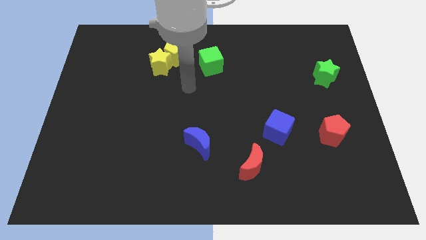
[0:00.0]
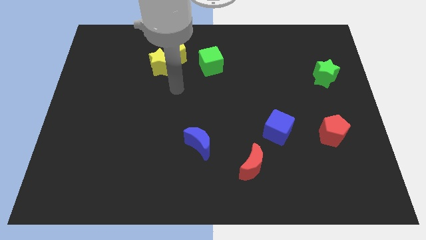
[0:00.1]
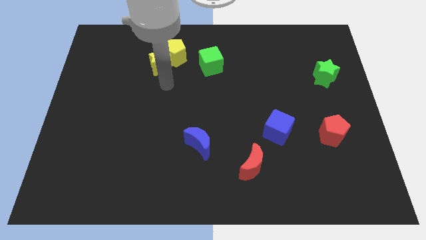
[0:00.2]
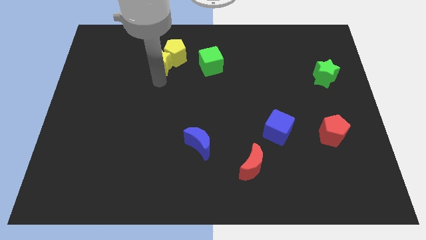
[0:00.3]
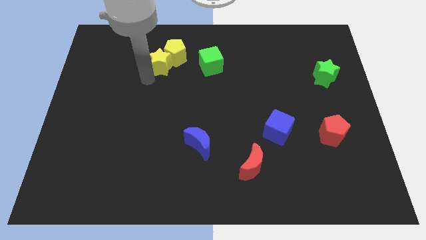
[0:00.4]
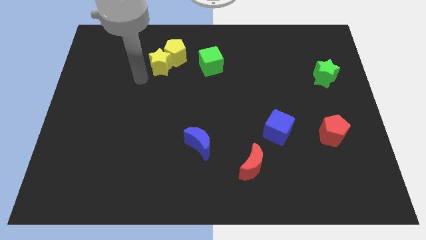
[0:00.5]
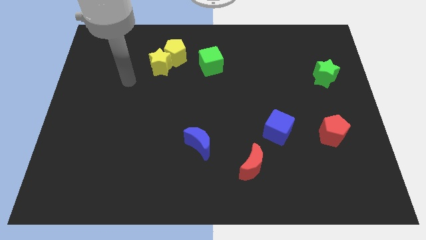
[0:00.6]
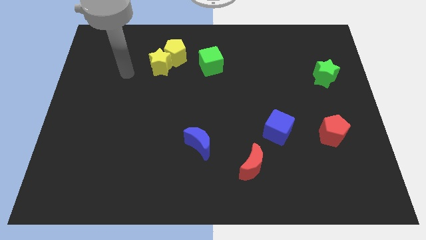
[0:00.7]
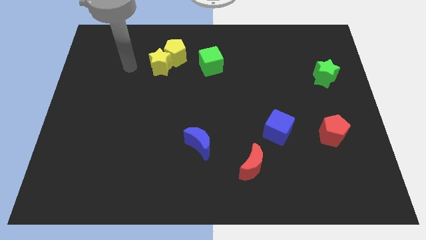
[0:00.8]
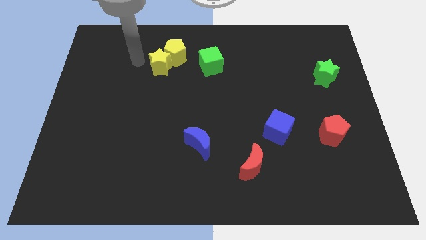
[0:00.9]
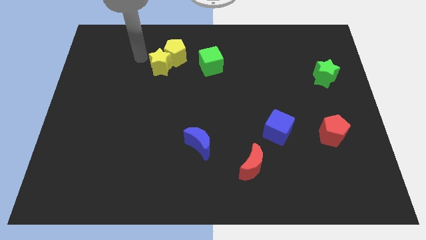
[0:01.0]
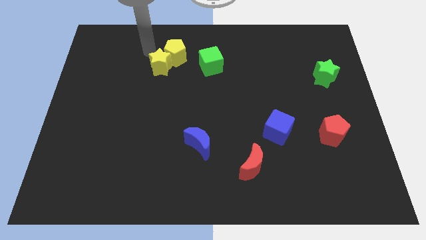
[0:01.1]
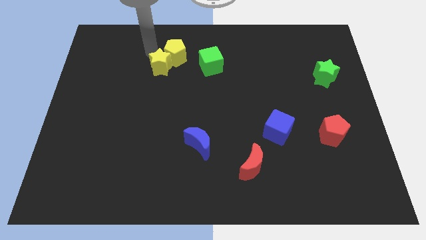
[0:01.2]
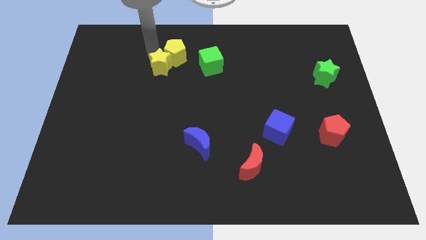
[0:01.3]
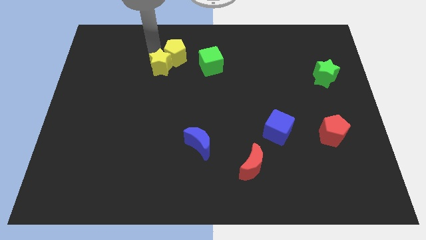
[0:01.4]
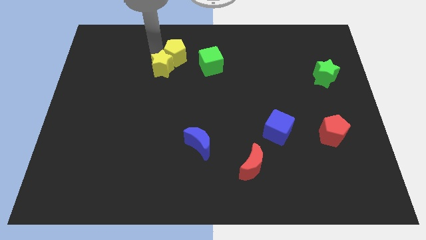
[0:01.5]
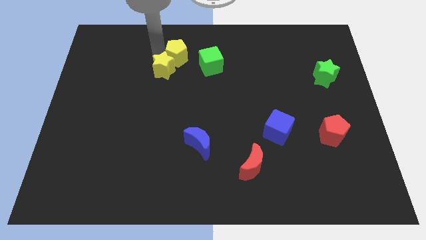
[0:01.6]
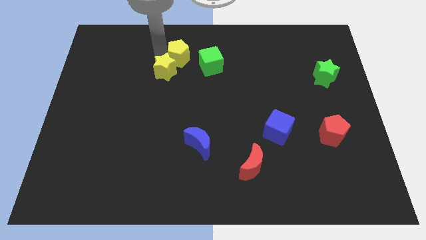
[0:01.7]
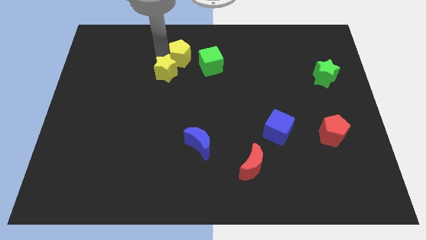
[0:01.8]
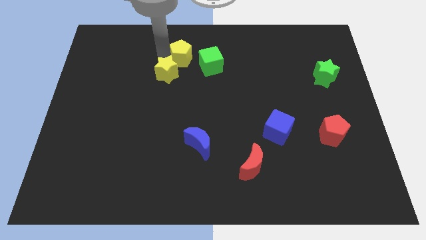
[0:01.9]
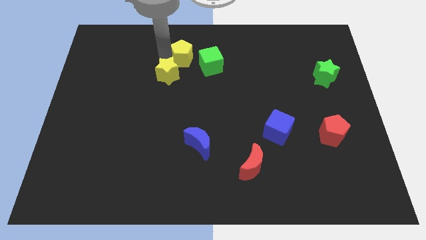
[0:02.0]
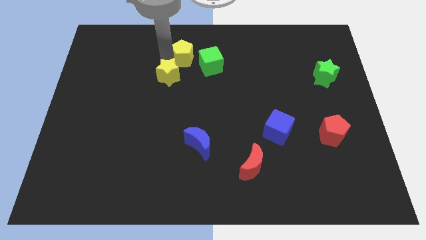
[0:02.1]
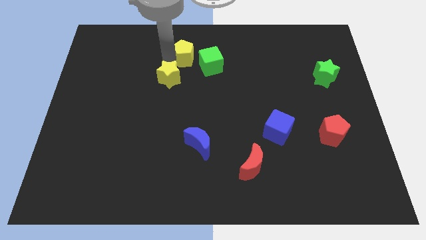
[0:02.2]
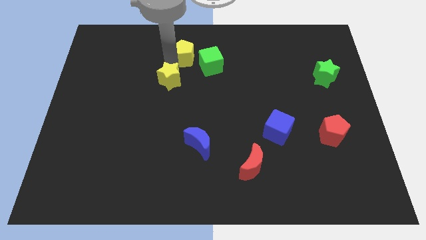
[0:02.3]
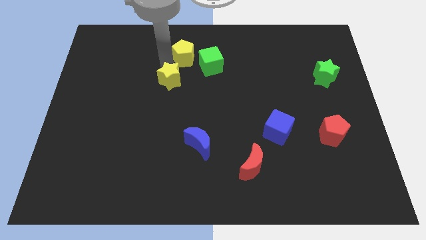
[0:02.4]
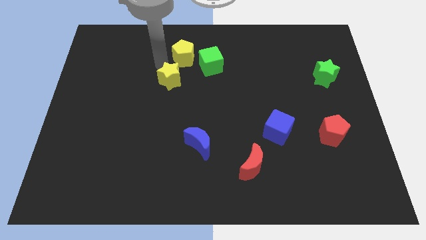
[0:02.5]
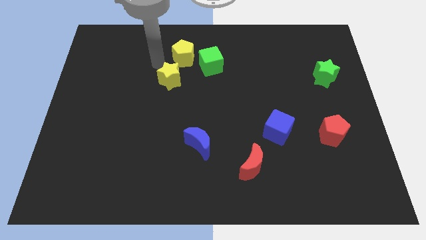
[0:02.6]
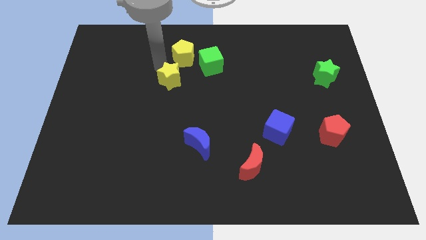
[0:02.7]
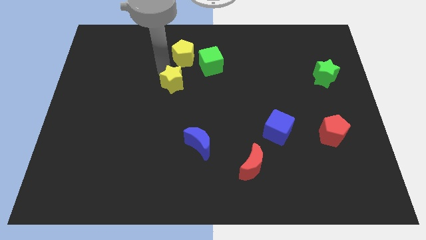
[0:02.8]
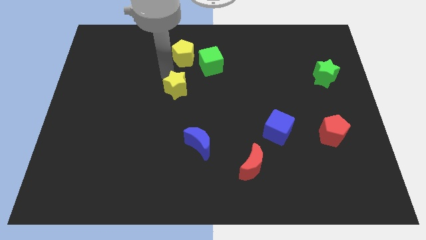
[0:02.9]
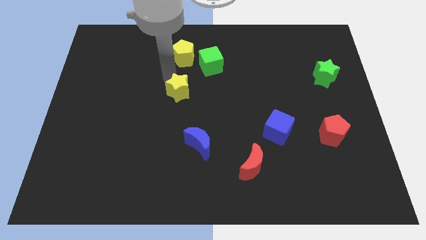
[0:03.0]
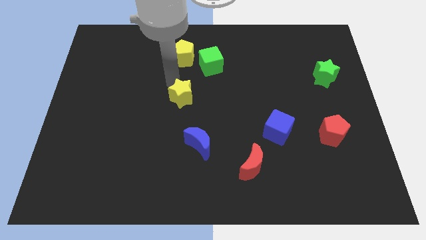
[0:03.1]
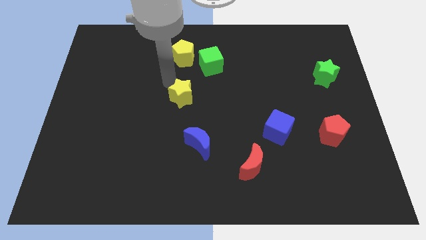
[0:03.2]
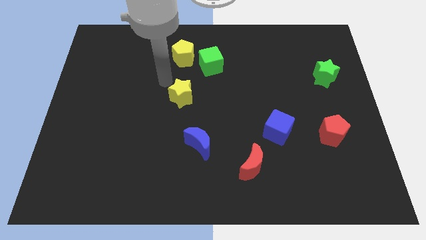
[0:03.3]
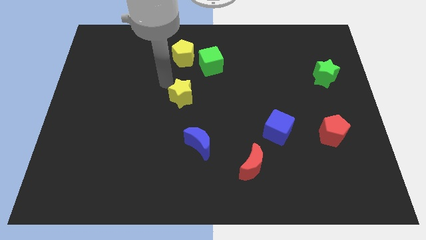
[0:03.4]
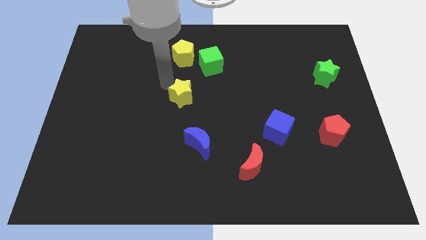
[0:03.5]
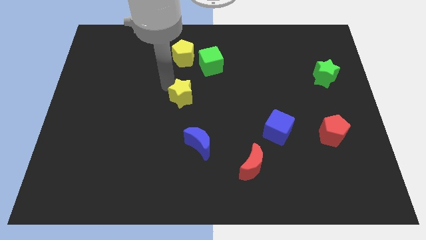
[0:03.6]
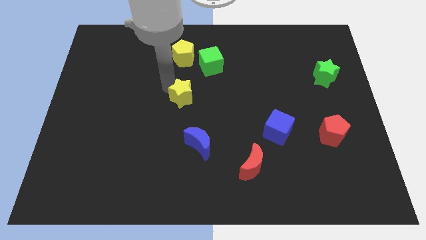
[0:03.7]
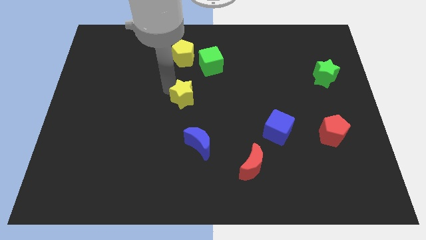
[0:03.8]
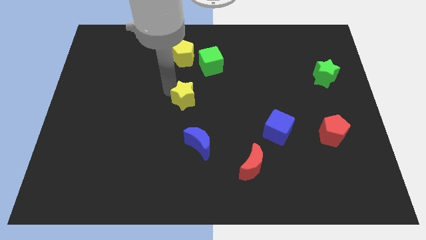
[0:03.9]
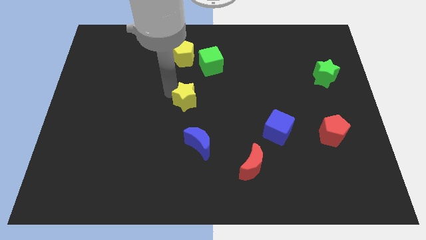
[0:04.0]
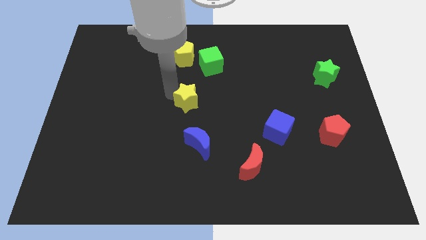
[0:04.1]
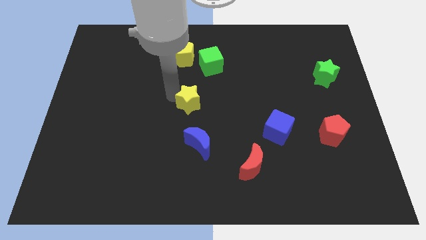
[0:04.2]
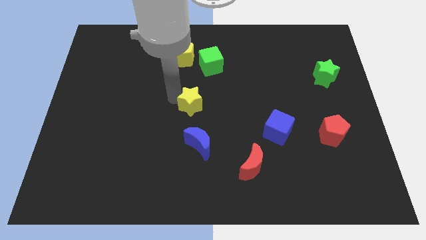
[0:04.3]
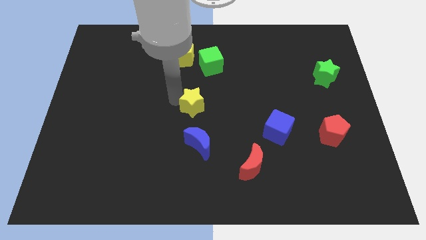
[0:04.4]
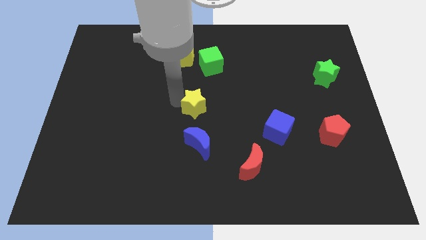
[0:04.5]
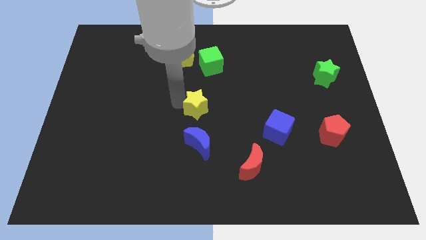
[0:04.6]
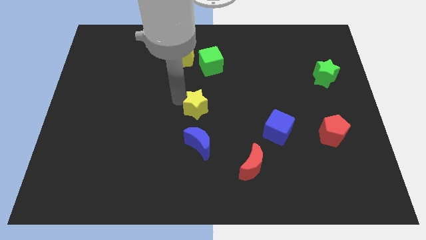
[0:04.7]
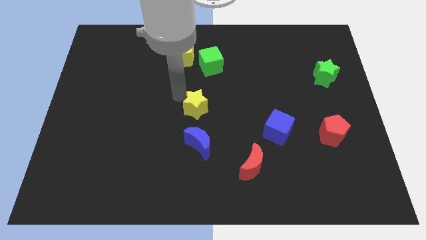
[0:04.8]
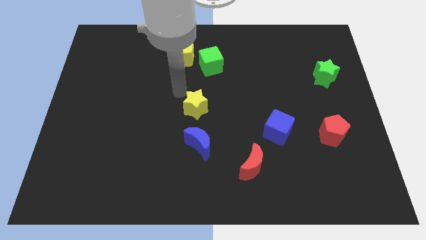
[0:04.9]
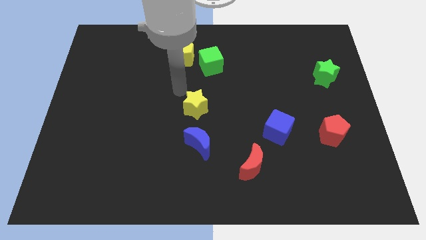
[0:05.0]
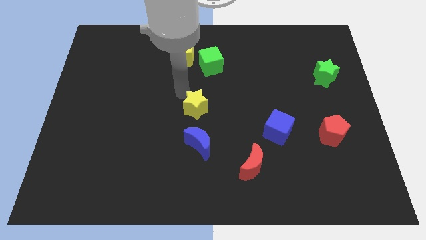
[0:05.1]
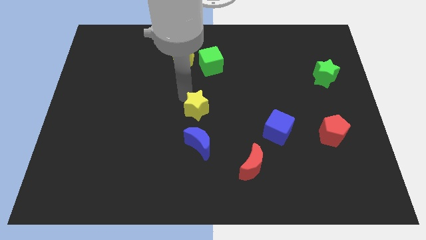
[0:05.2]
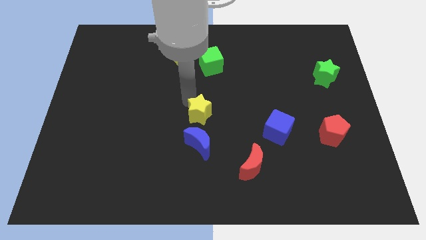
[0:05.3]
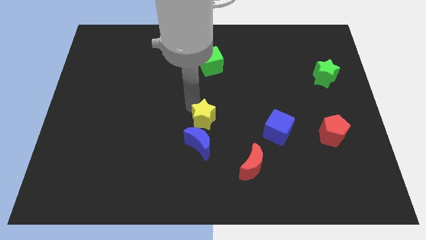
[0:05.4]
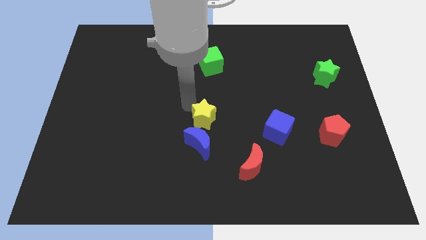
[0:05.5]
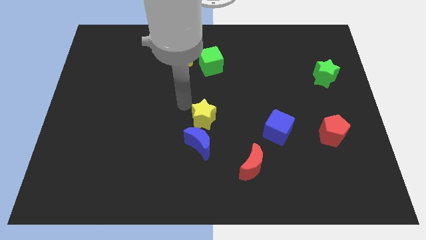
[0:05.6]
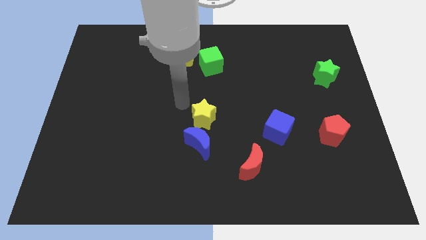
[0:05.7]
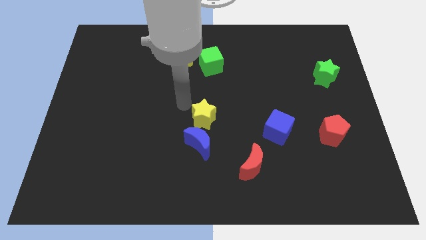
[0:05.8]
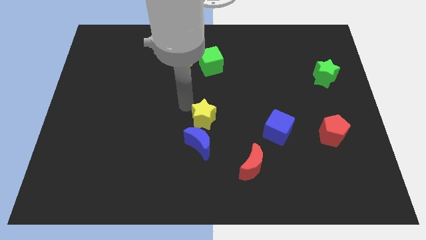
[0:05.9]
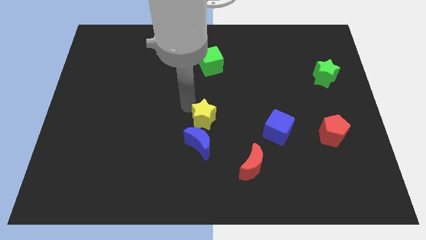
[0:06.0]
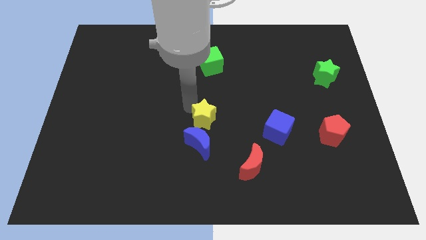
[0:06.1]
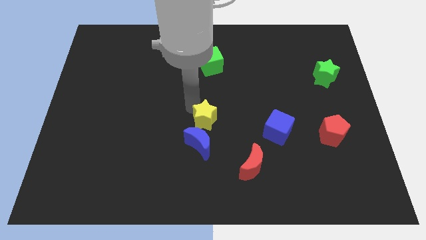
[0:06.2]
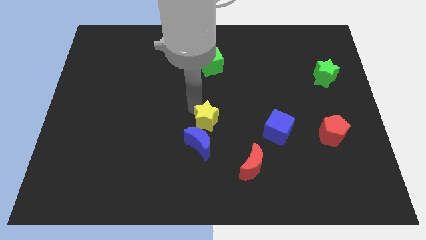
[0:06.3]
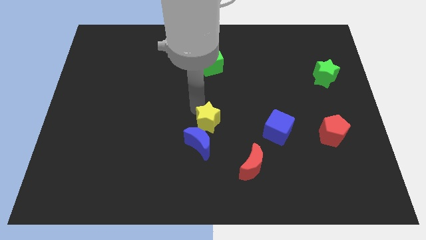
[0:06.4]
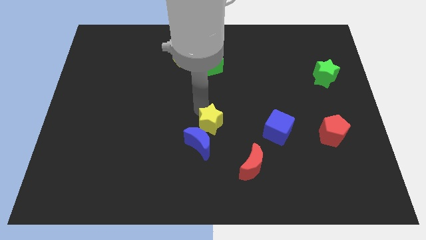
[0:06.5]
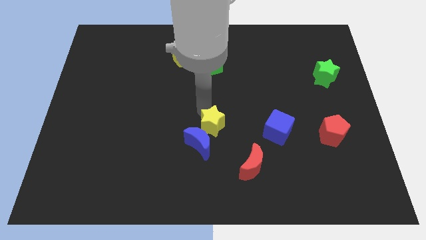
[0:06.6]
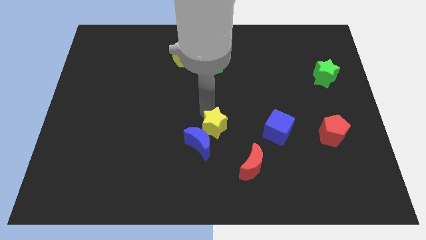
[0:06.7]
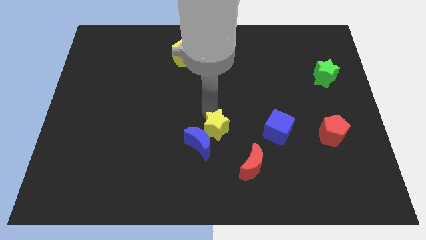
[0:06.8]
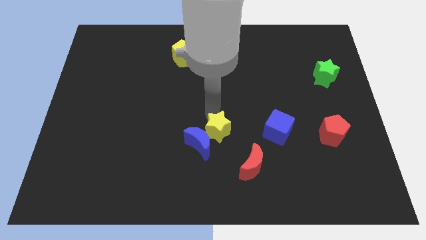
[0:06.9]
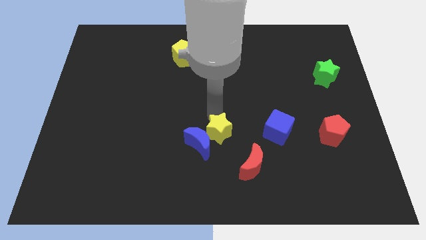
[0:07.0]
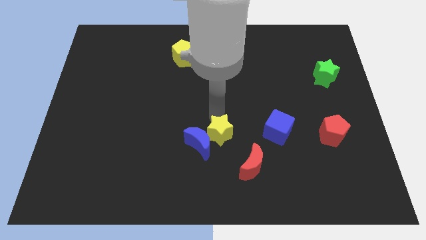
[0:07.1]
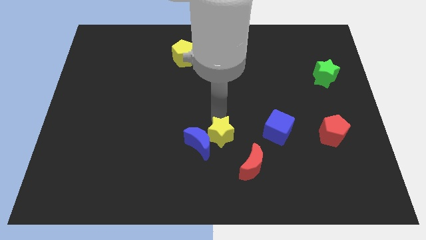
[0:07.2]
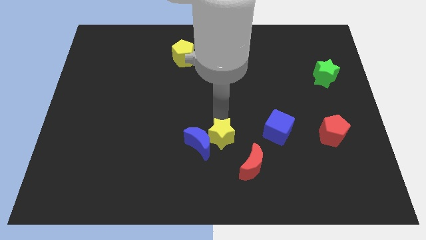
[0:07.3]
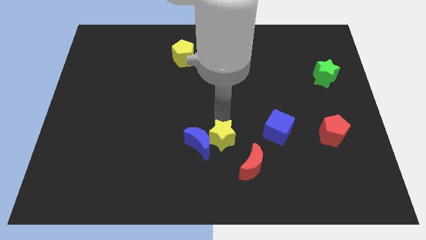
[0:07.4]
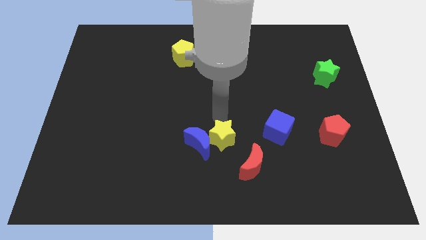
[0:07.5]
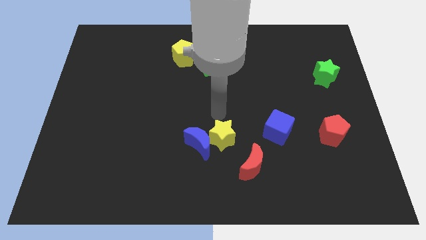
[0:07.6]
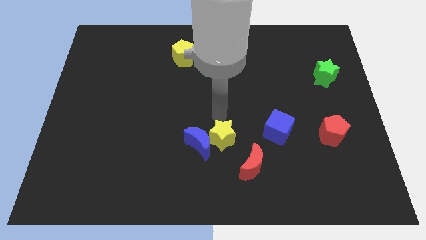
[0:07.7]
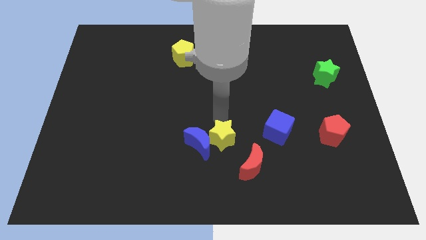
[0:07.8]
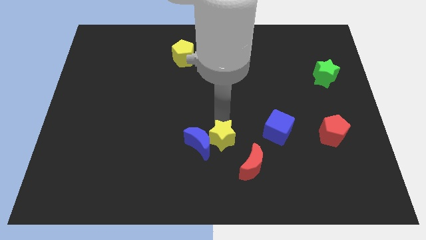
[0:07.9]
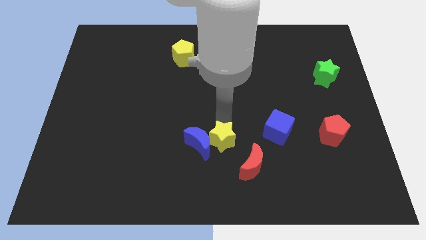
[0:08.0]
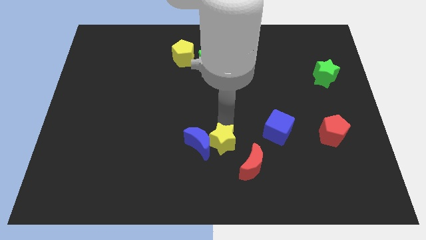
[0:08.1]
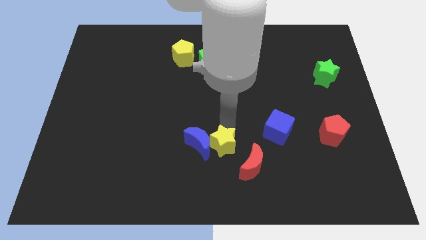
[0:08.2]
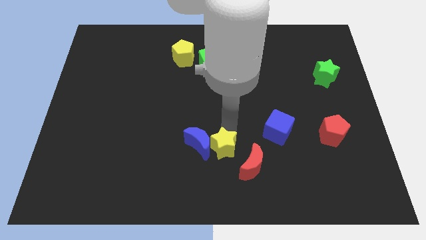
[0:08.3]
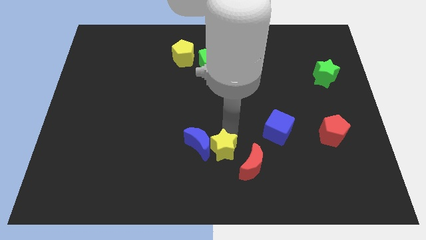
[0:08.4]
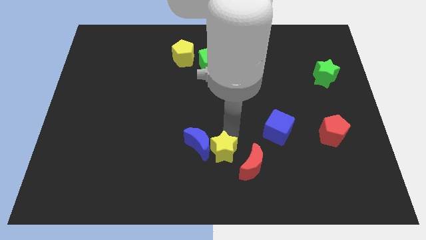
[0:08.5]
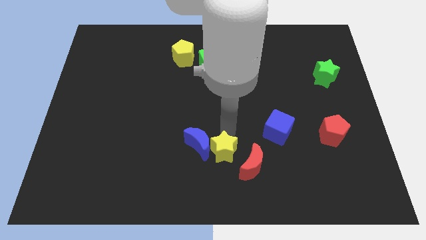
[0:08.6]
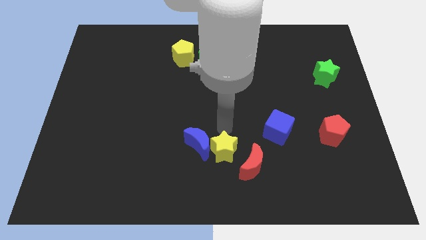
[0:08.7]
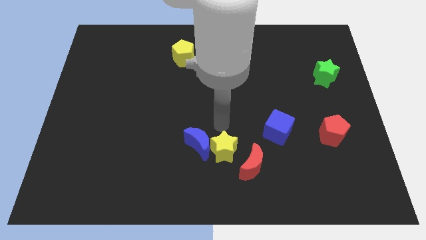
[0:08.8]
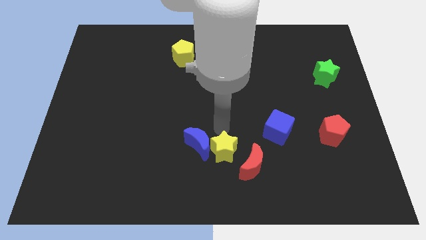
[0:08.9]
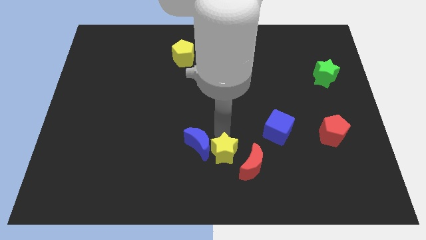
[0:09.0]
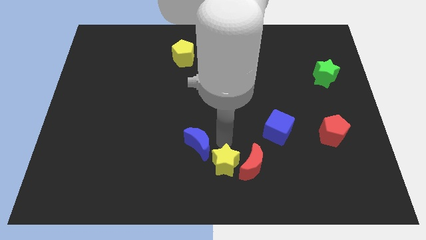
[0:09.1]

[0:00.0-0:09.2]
put the yellow star to the bottom side
